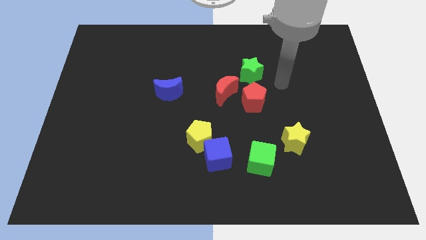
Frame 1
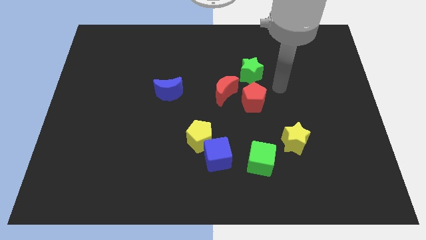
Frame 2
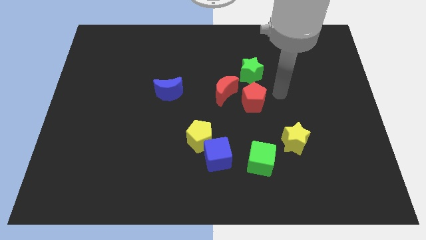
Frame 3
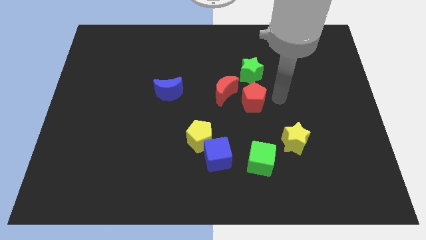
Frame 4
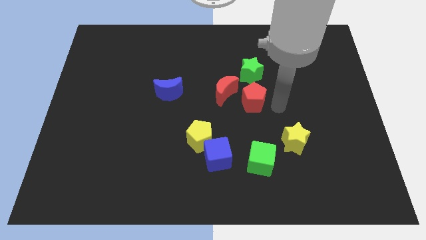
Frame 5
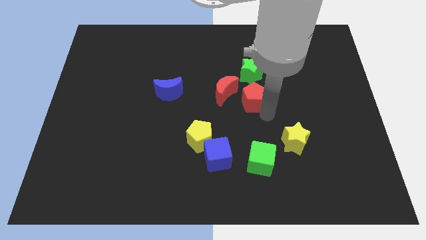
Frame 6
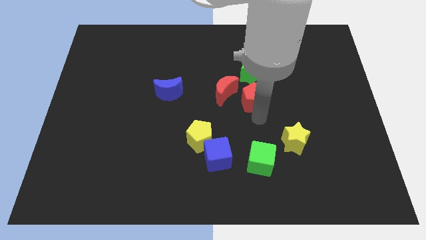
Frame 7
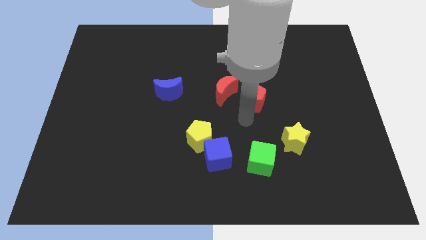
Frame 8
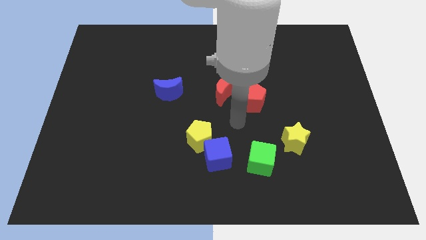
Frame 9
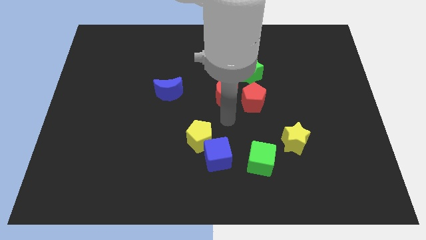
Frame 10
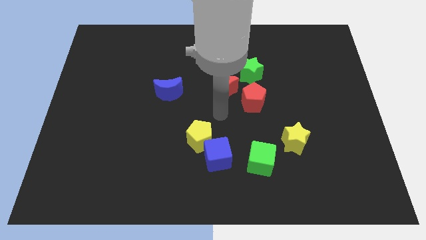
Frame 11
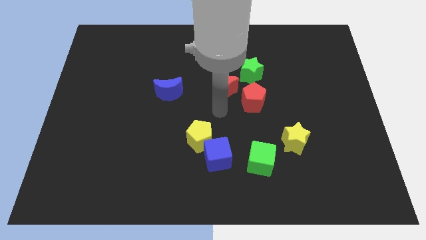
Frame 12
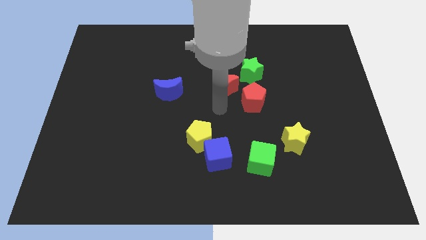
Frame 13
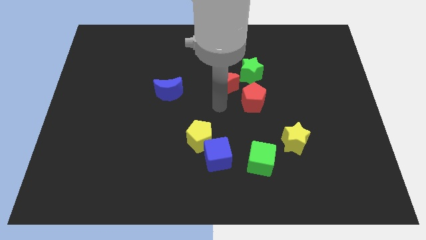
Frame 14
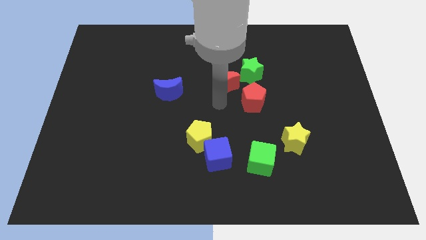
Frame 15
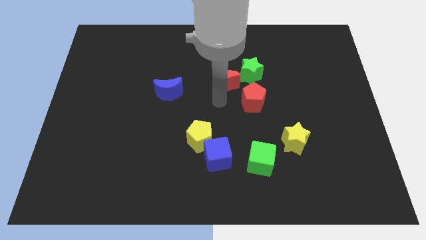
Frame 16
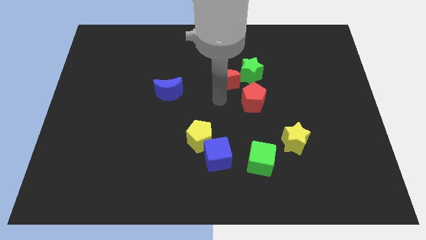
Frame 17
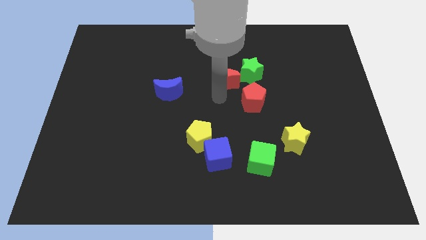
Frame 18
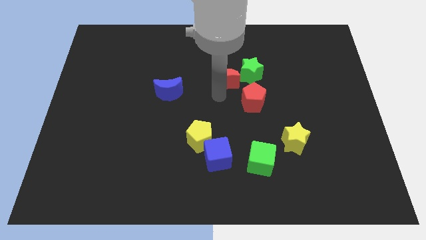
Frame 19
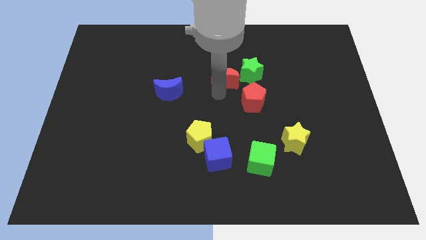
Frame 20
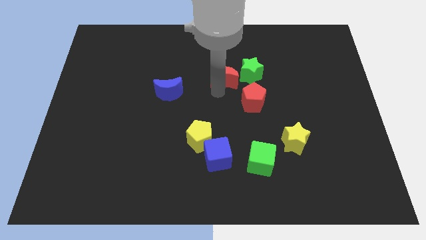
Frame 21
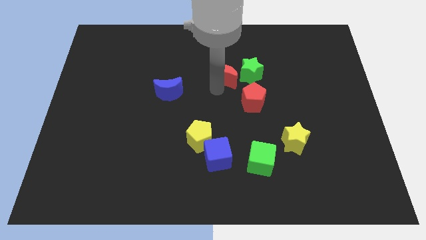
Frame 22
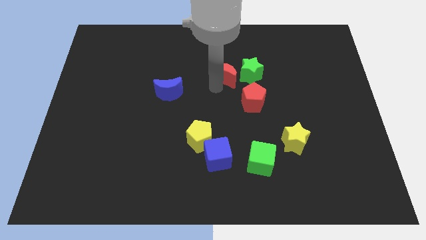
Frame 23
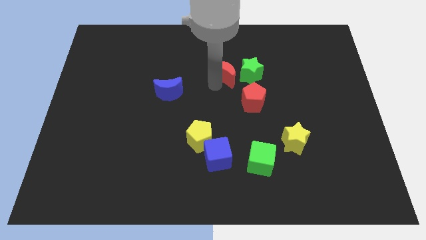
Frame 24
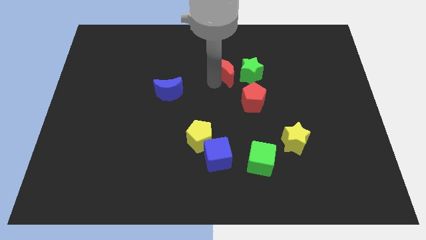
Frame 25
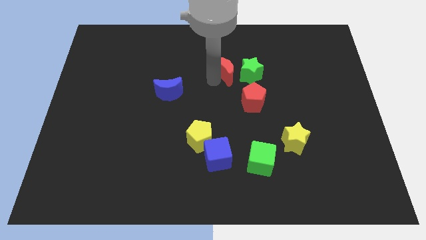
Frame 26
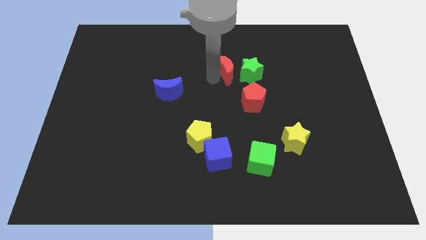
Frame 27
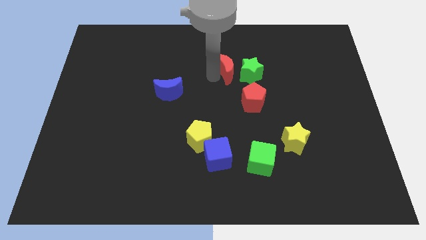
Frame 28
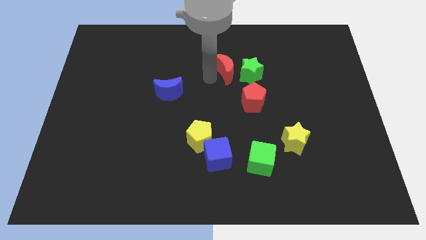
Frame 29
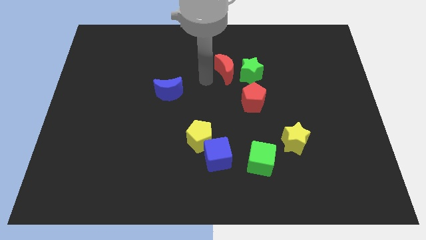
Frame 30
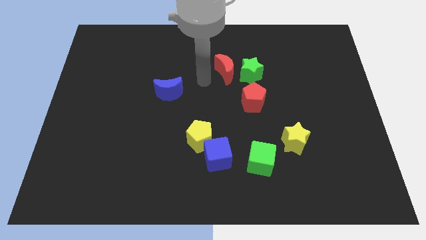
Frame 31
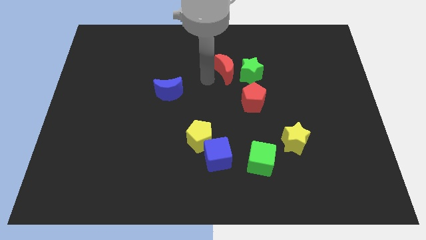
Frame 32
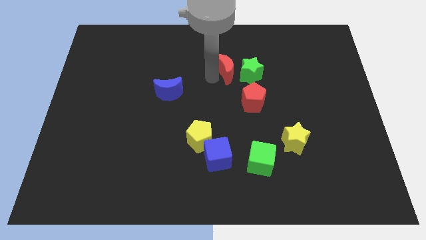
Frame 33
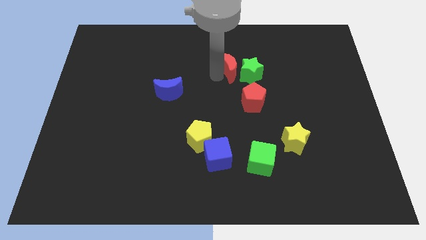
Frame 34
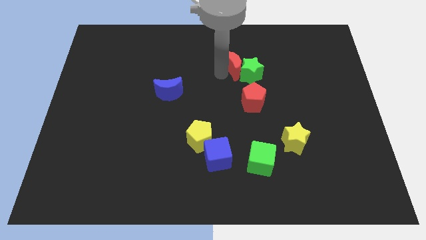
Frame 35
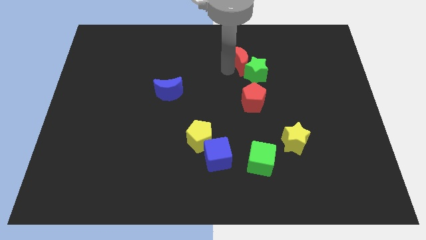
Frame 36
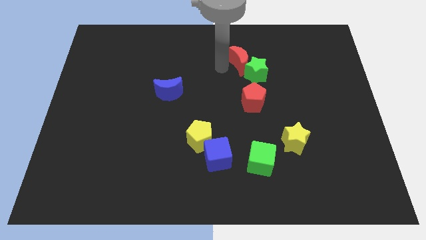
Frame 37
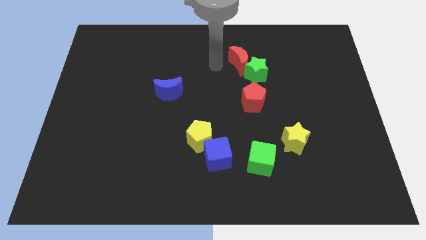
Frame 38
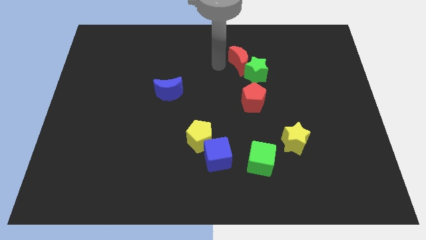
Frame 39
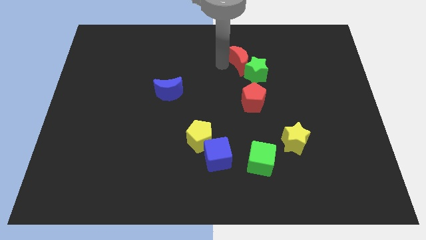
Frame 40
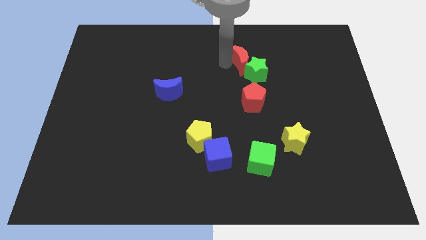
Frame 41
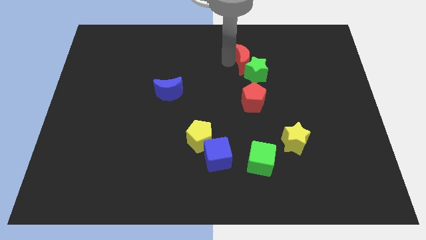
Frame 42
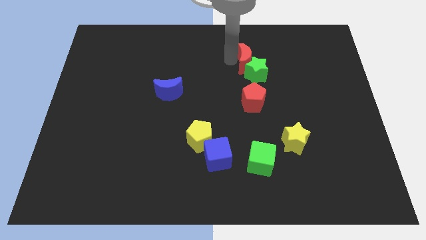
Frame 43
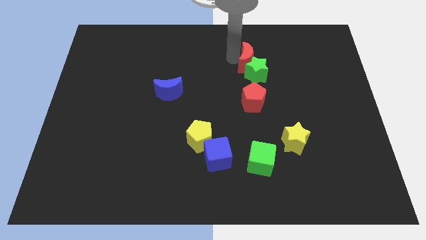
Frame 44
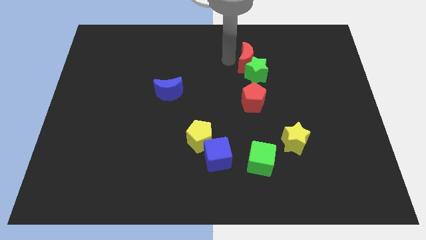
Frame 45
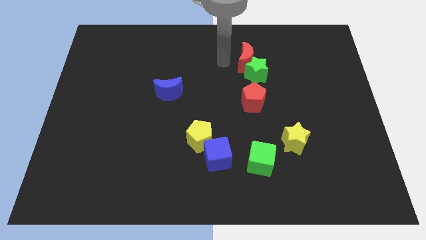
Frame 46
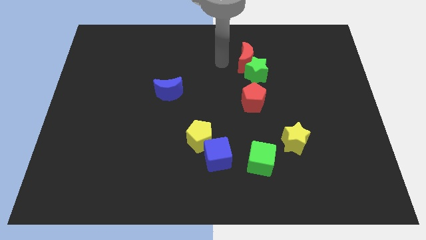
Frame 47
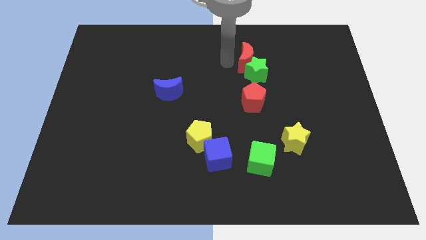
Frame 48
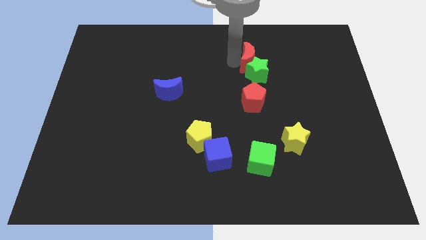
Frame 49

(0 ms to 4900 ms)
slide the red moon to the top right side of the green star

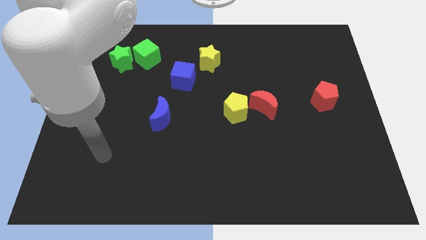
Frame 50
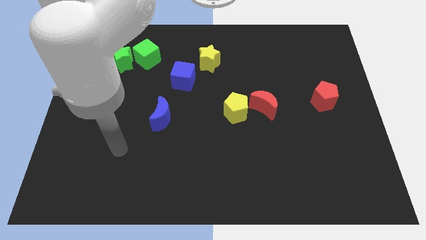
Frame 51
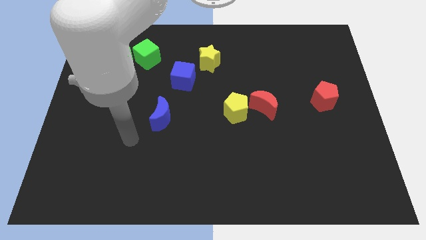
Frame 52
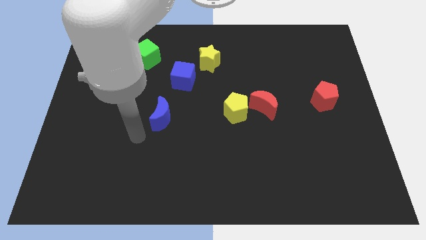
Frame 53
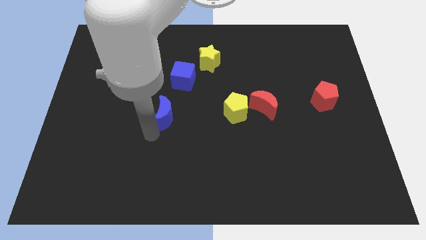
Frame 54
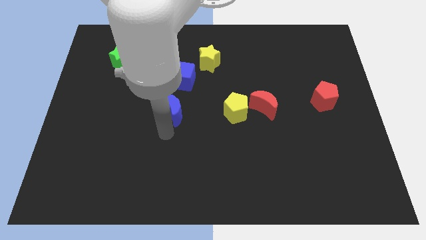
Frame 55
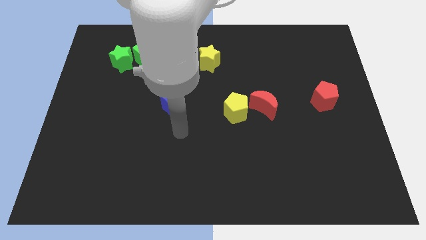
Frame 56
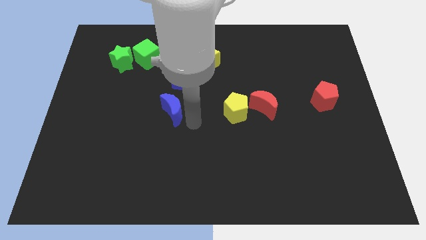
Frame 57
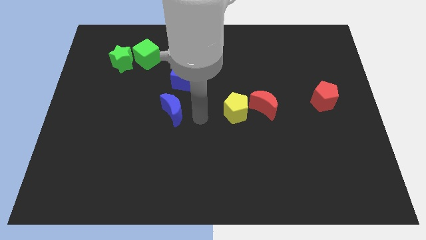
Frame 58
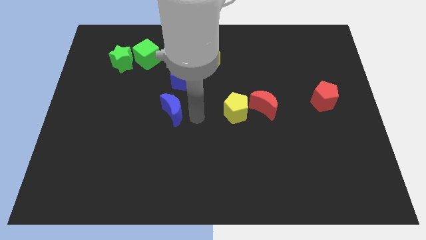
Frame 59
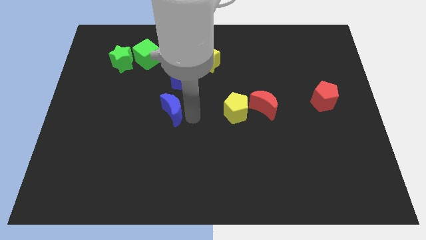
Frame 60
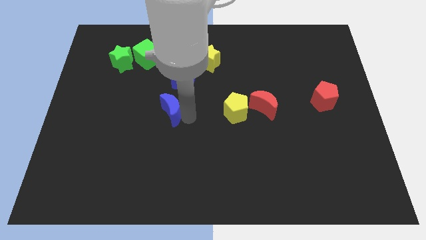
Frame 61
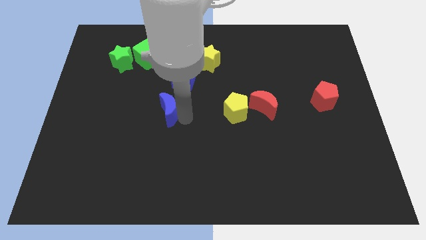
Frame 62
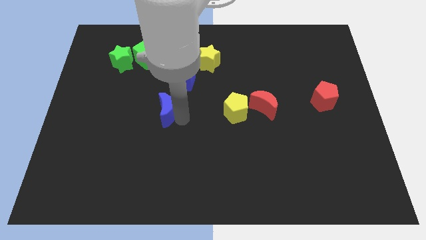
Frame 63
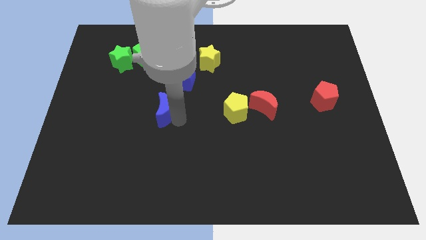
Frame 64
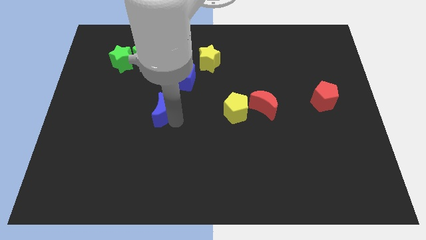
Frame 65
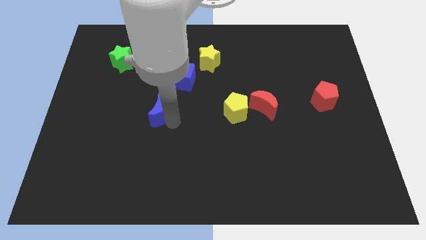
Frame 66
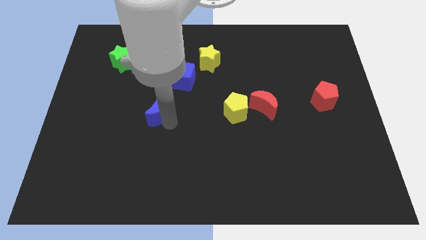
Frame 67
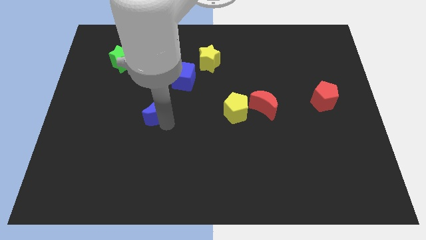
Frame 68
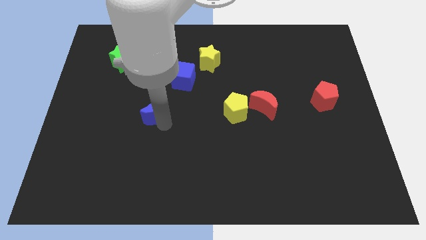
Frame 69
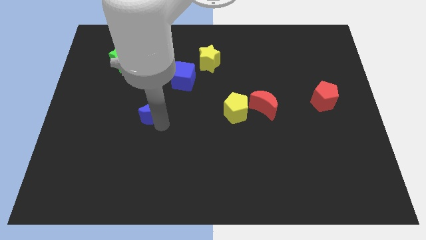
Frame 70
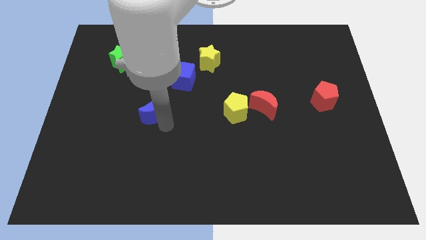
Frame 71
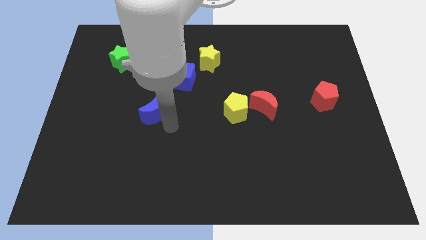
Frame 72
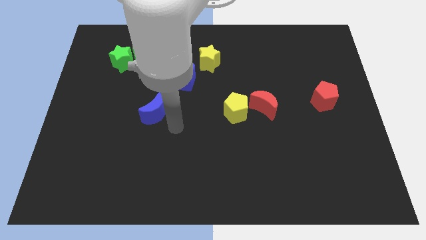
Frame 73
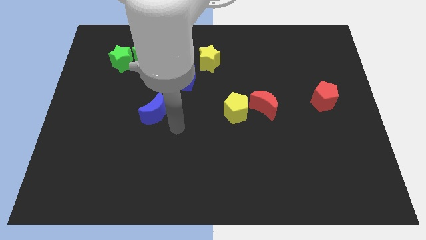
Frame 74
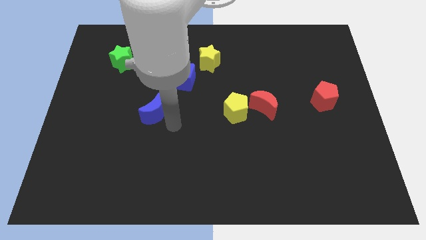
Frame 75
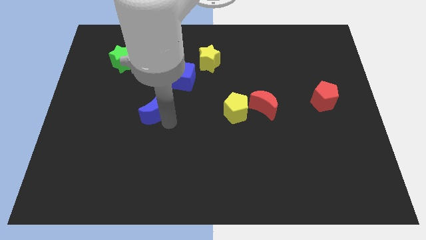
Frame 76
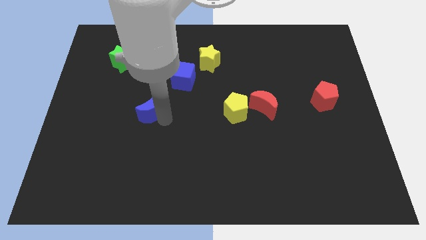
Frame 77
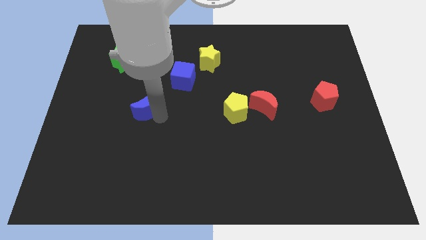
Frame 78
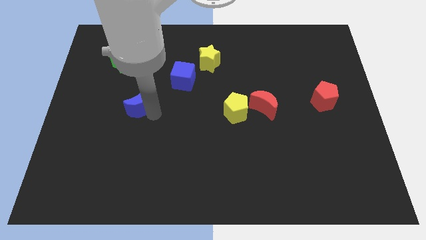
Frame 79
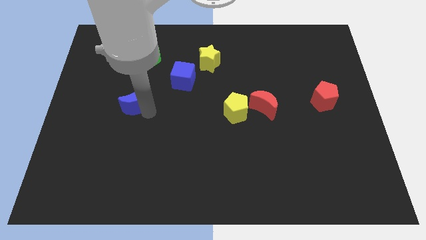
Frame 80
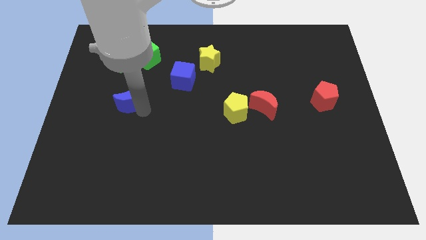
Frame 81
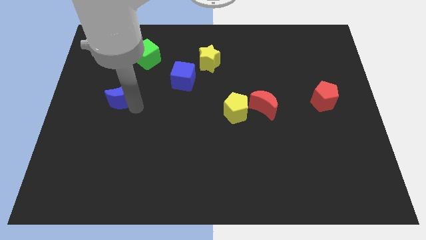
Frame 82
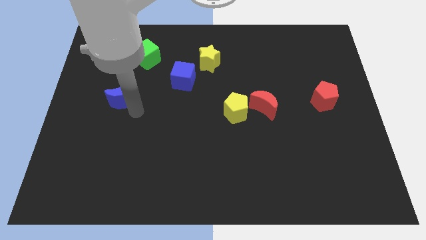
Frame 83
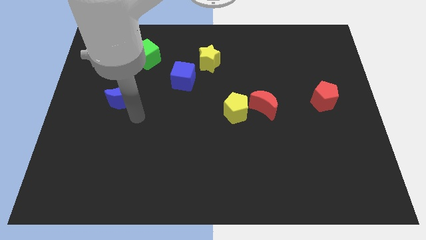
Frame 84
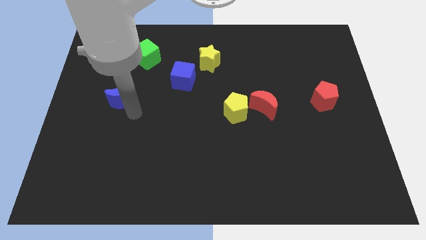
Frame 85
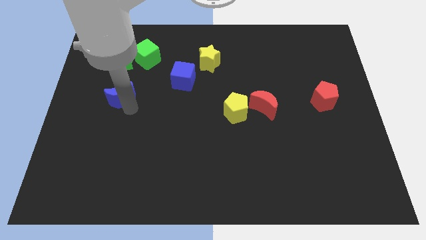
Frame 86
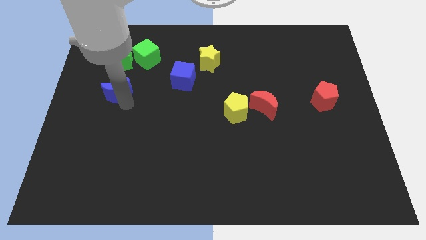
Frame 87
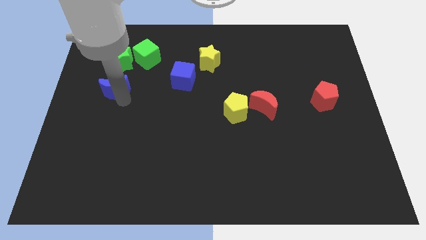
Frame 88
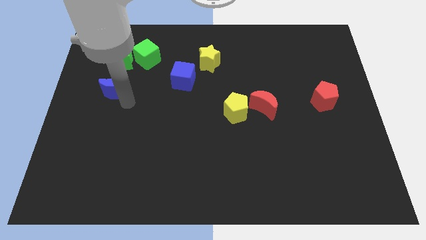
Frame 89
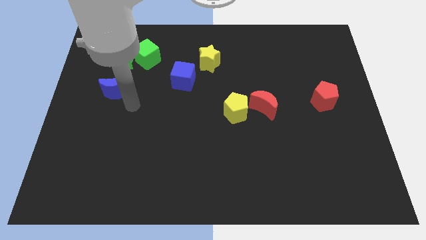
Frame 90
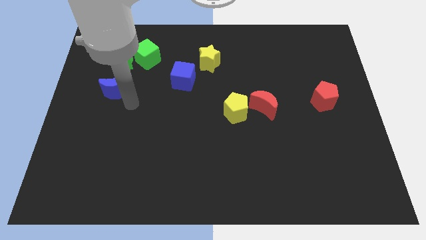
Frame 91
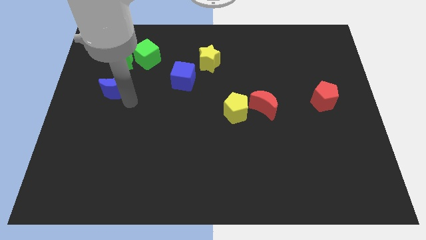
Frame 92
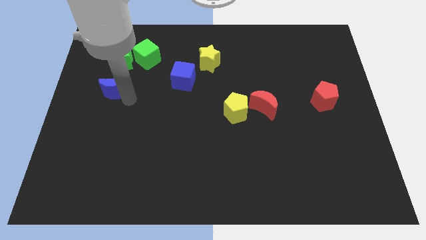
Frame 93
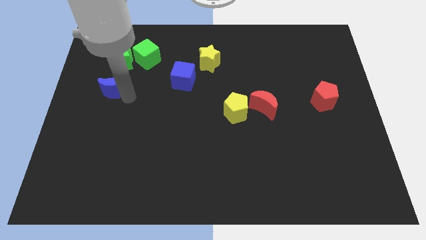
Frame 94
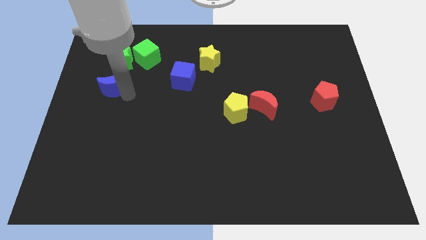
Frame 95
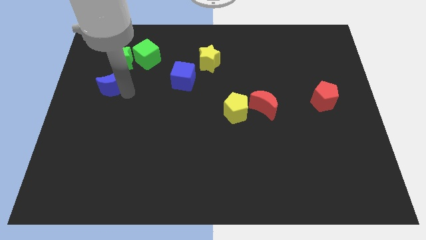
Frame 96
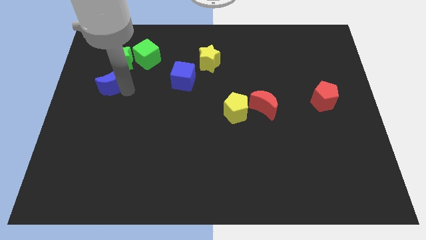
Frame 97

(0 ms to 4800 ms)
push the blue moon to the bottom left side of the green star
